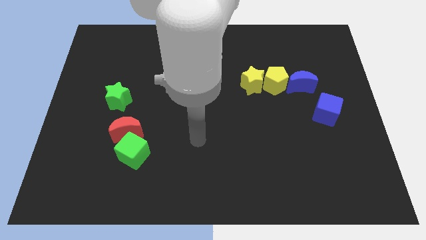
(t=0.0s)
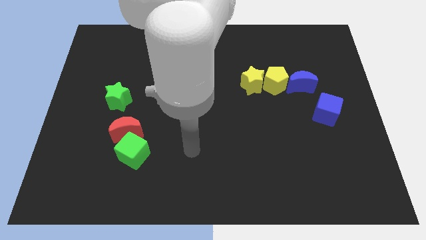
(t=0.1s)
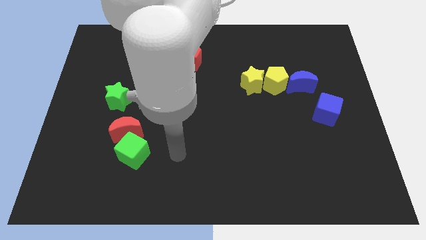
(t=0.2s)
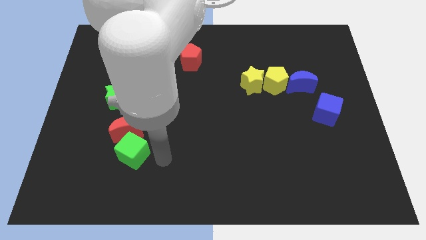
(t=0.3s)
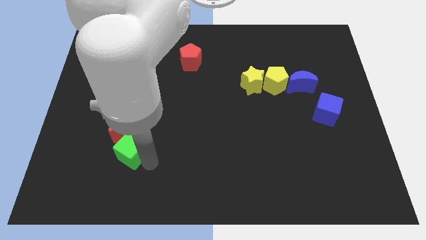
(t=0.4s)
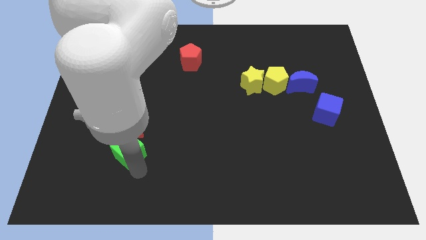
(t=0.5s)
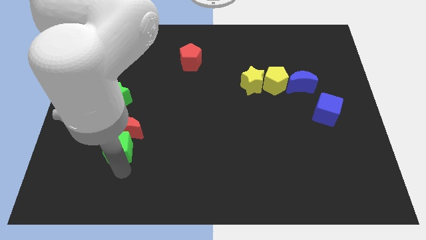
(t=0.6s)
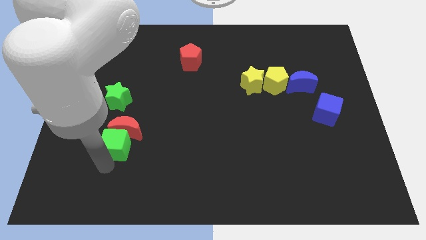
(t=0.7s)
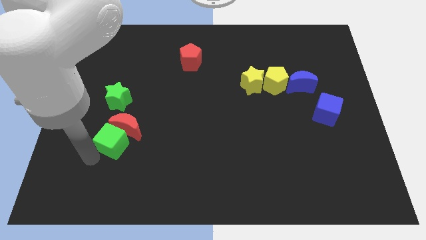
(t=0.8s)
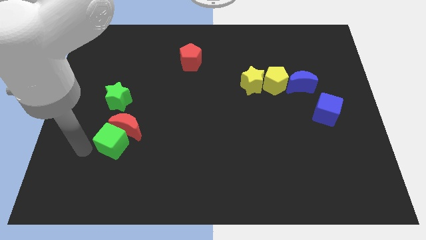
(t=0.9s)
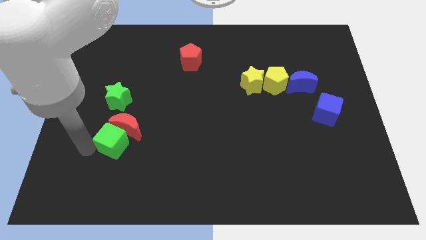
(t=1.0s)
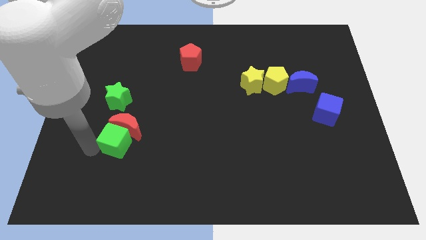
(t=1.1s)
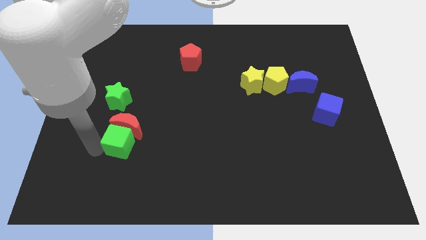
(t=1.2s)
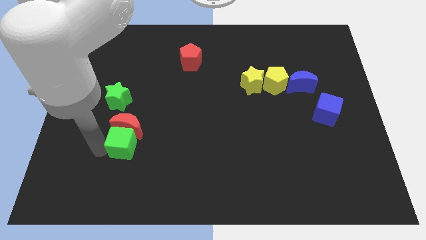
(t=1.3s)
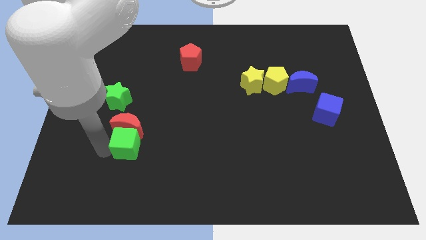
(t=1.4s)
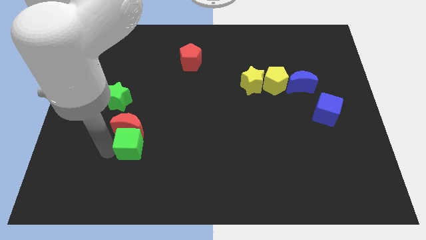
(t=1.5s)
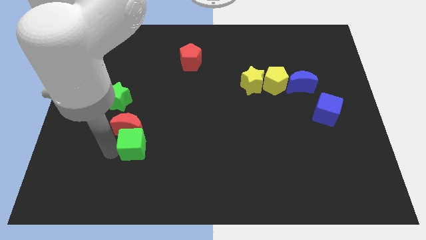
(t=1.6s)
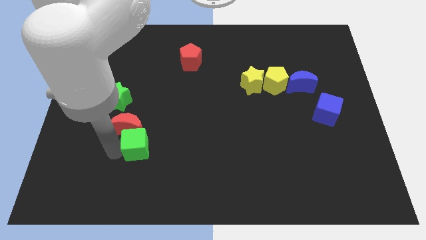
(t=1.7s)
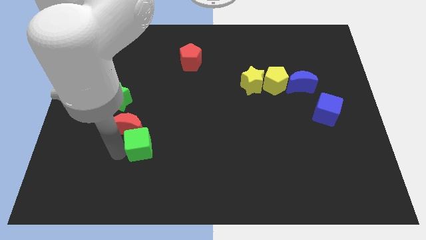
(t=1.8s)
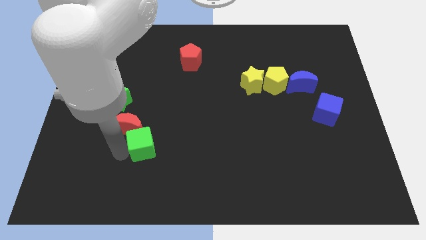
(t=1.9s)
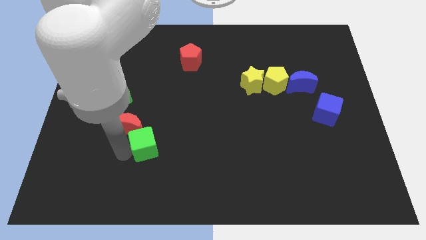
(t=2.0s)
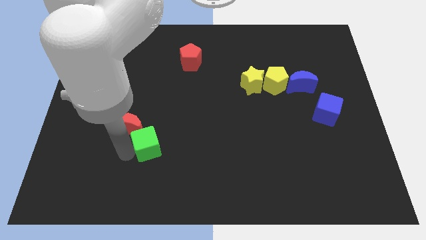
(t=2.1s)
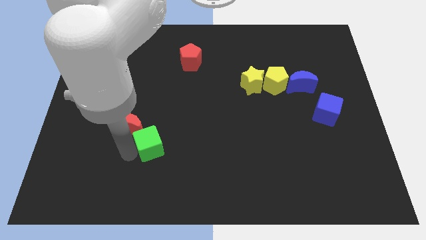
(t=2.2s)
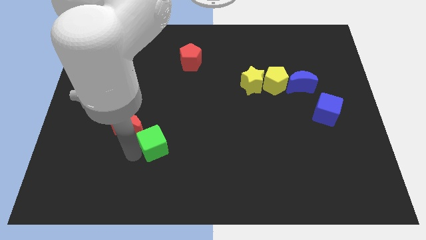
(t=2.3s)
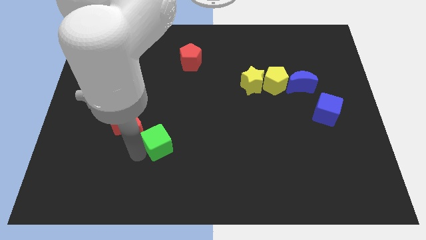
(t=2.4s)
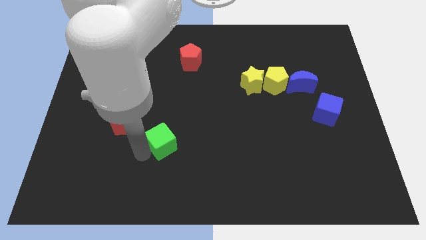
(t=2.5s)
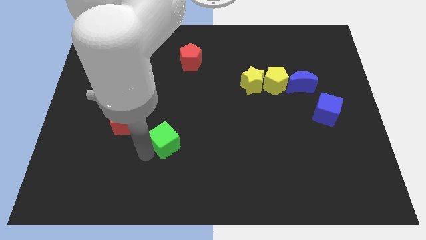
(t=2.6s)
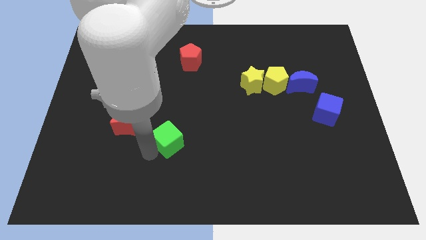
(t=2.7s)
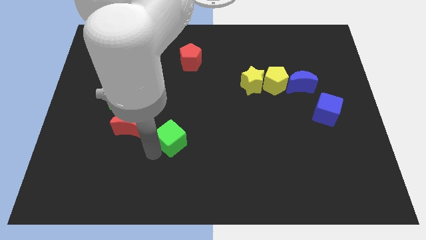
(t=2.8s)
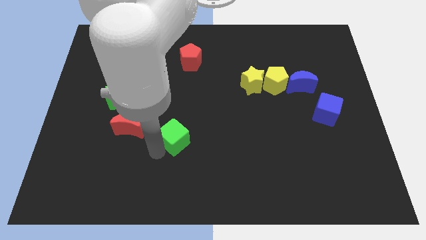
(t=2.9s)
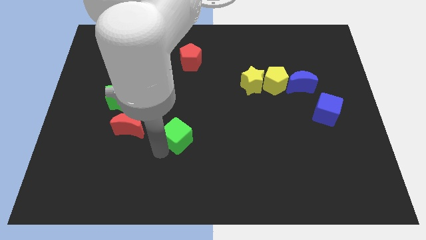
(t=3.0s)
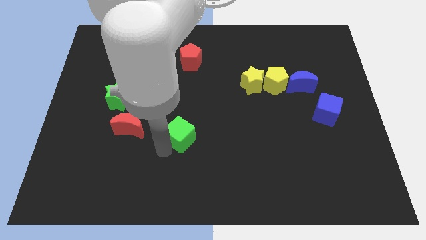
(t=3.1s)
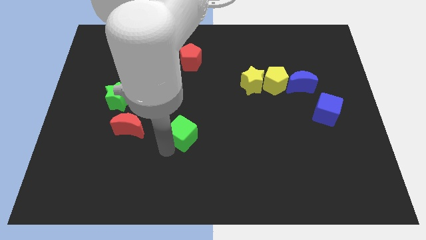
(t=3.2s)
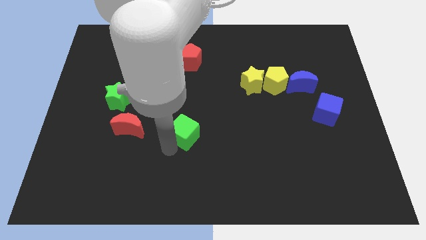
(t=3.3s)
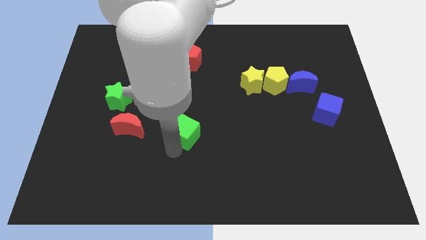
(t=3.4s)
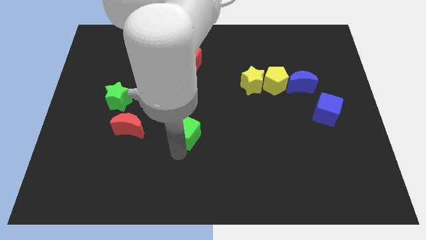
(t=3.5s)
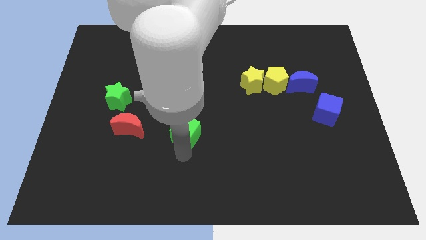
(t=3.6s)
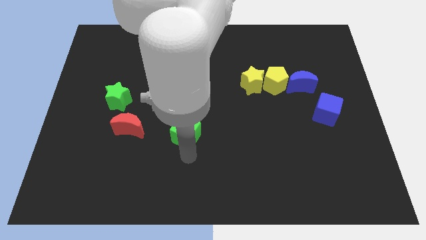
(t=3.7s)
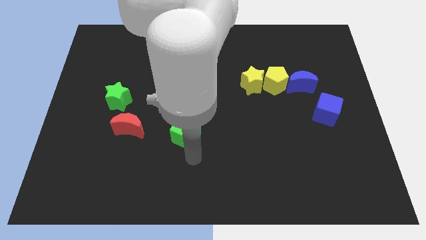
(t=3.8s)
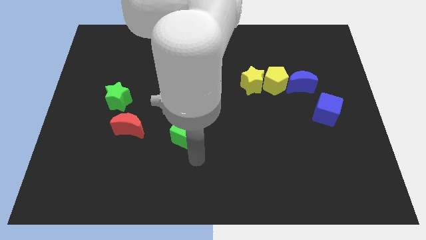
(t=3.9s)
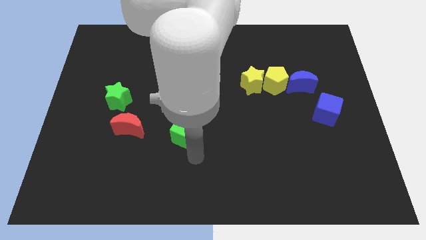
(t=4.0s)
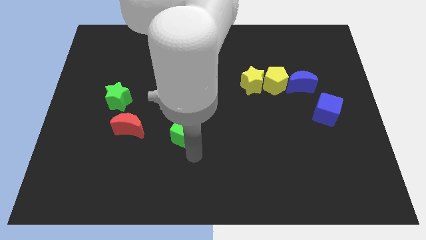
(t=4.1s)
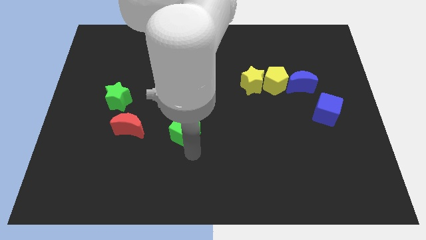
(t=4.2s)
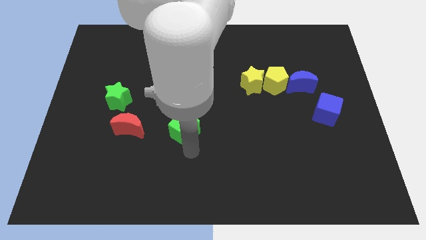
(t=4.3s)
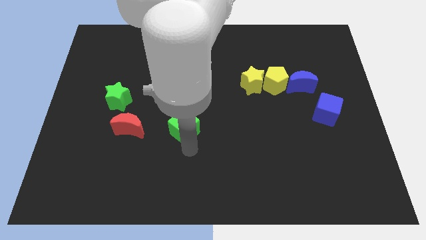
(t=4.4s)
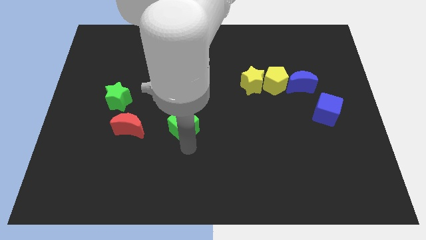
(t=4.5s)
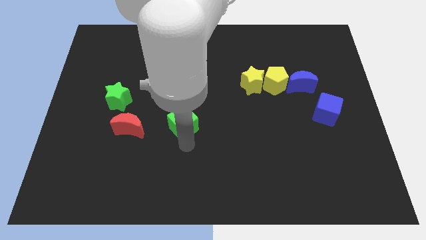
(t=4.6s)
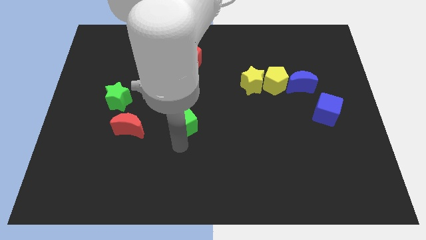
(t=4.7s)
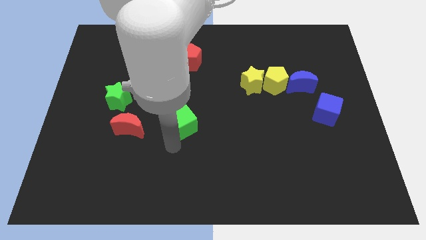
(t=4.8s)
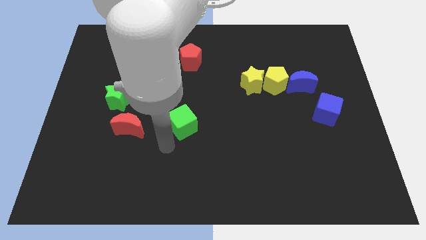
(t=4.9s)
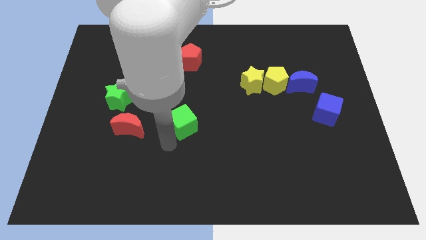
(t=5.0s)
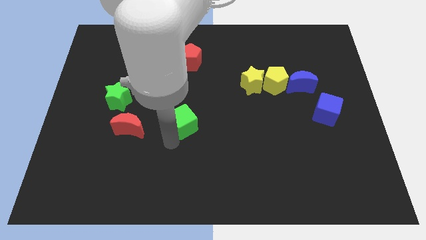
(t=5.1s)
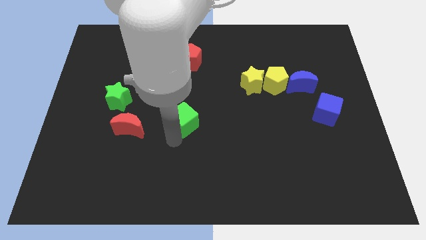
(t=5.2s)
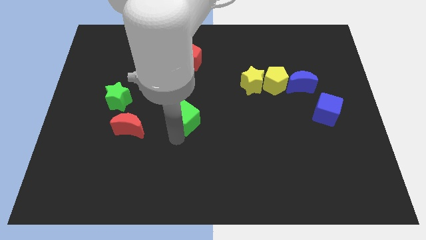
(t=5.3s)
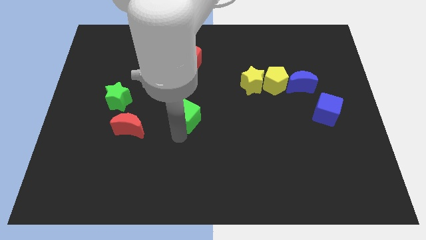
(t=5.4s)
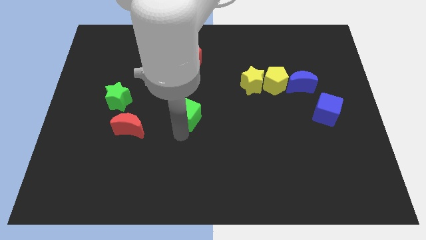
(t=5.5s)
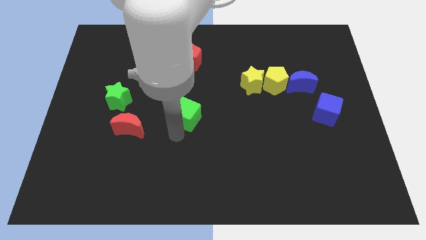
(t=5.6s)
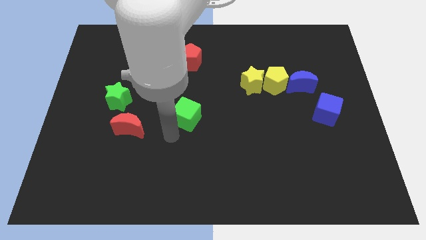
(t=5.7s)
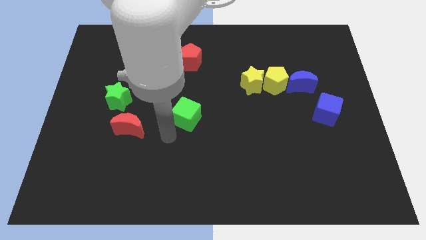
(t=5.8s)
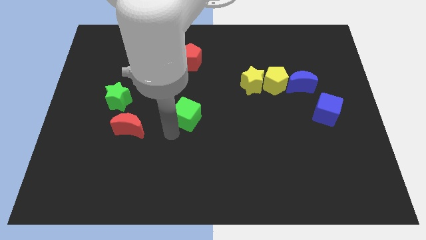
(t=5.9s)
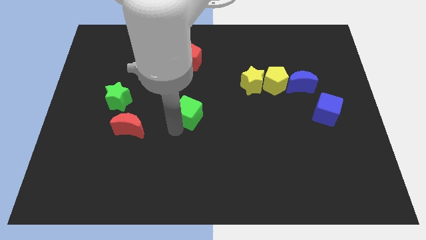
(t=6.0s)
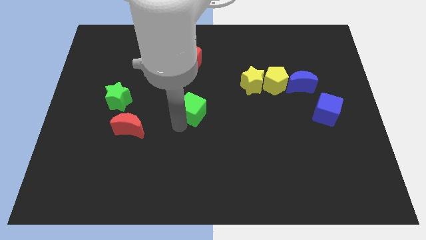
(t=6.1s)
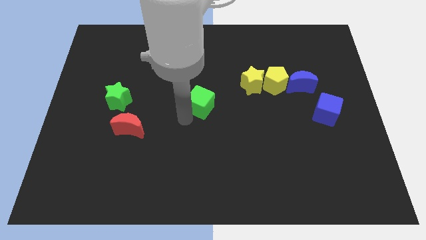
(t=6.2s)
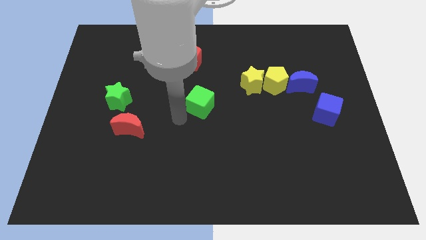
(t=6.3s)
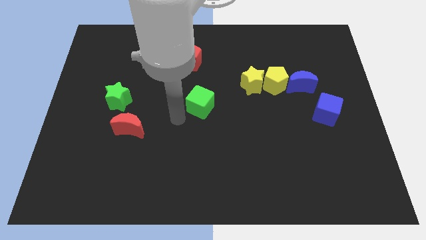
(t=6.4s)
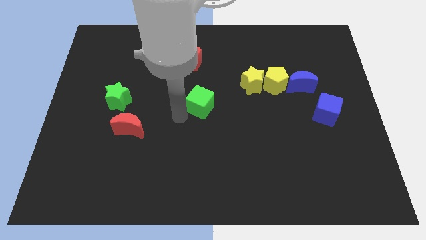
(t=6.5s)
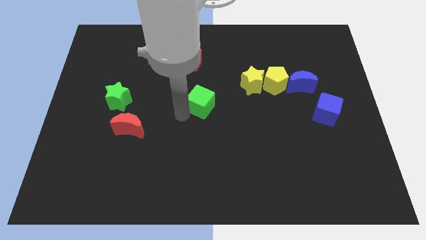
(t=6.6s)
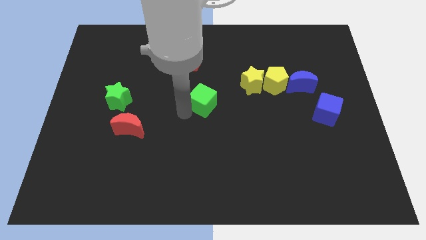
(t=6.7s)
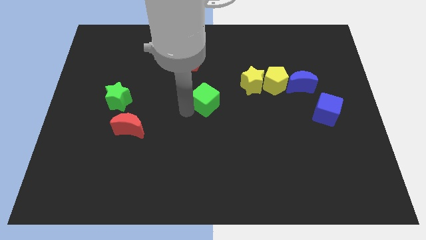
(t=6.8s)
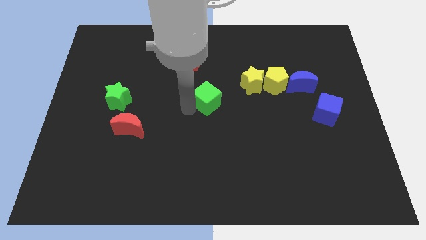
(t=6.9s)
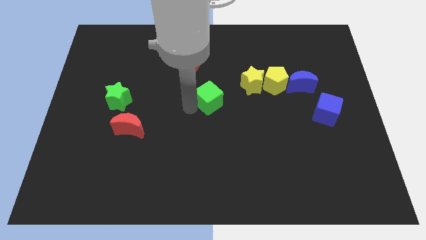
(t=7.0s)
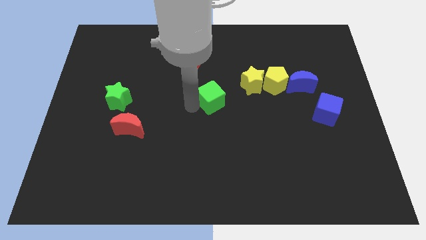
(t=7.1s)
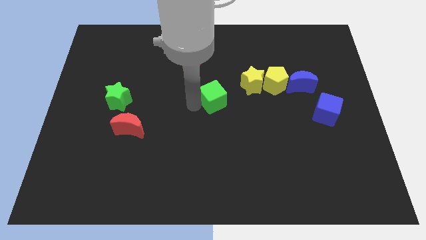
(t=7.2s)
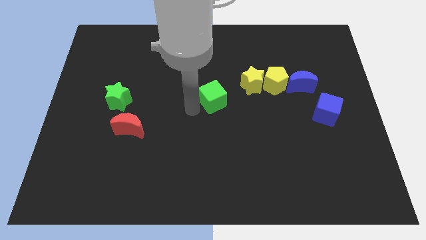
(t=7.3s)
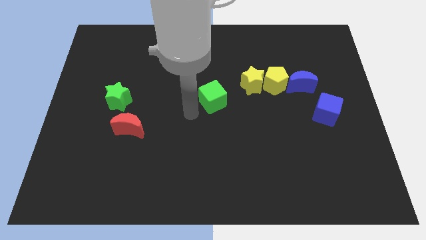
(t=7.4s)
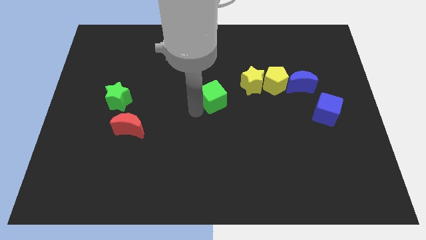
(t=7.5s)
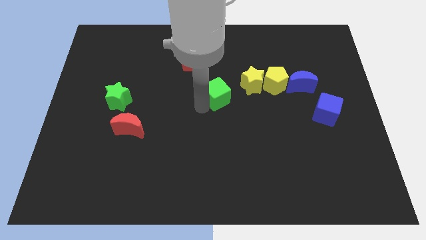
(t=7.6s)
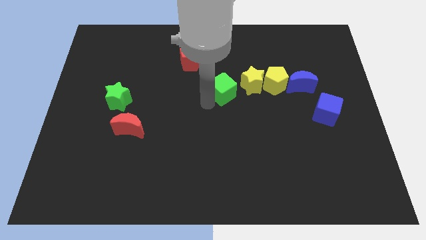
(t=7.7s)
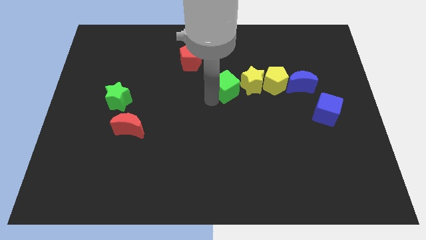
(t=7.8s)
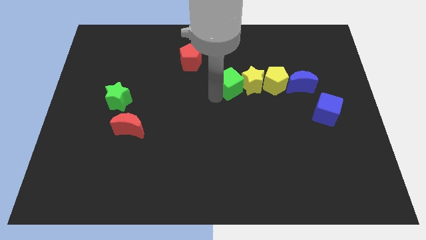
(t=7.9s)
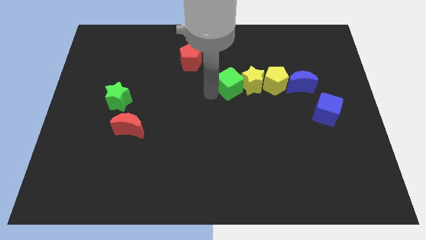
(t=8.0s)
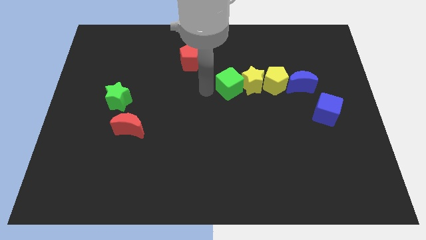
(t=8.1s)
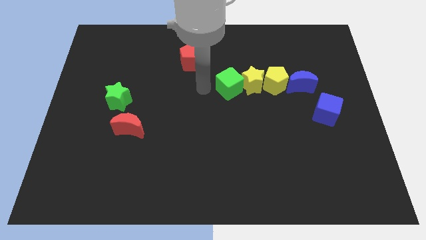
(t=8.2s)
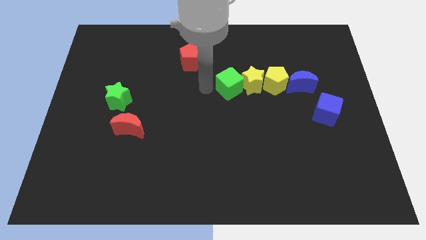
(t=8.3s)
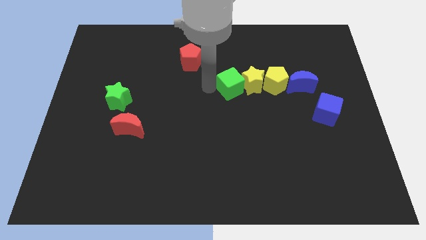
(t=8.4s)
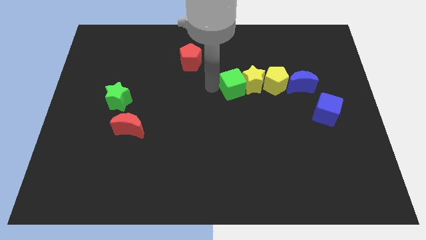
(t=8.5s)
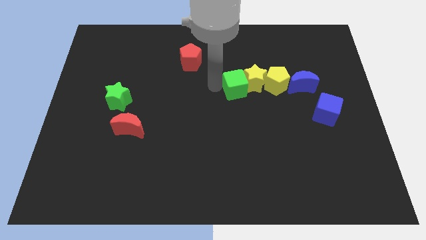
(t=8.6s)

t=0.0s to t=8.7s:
move the green cube to the left of the blue moon
